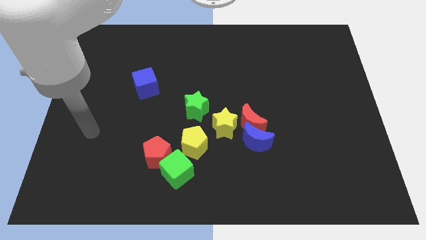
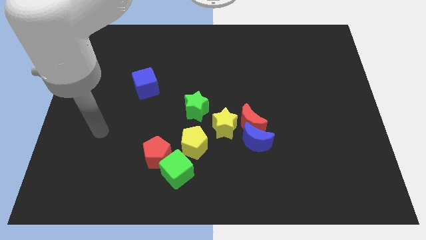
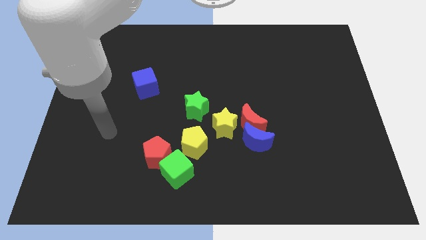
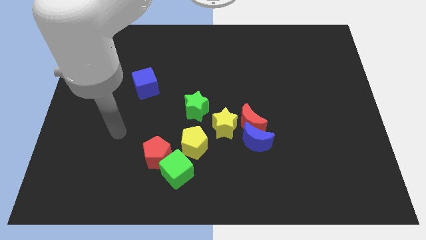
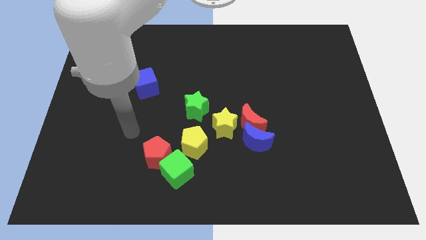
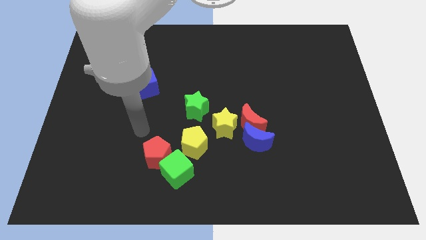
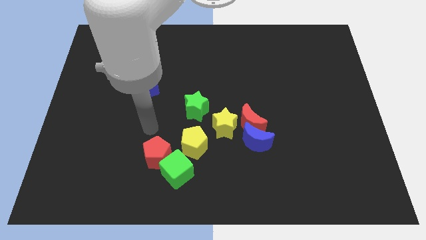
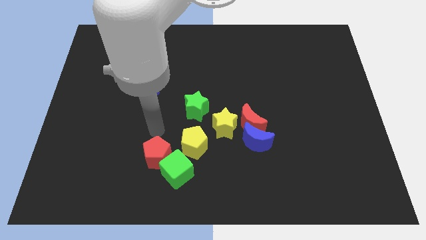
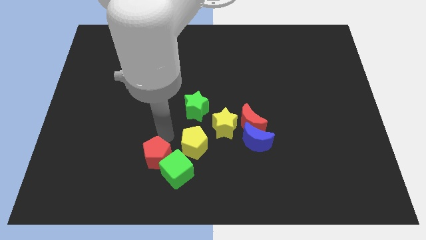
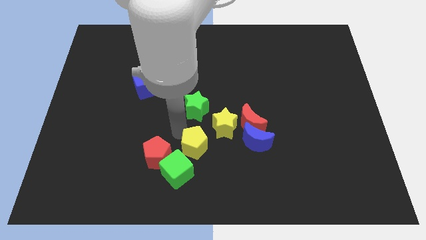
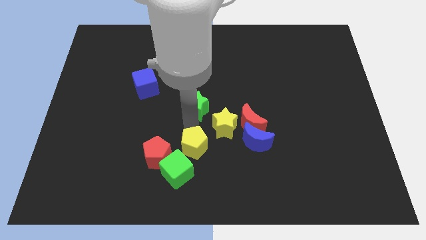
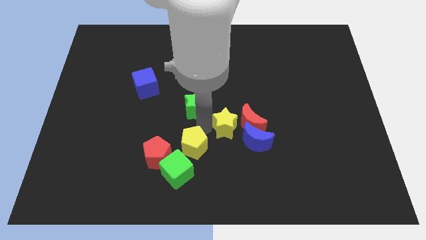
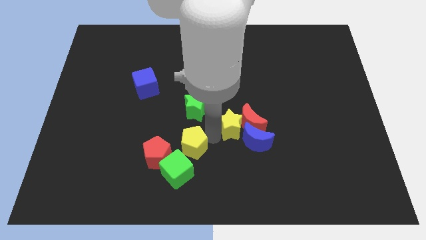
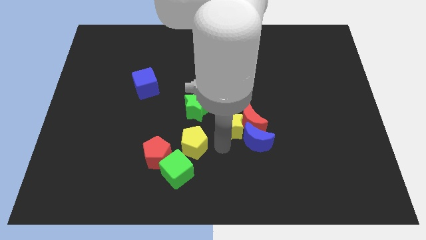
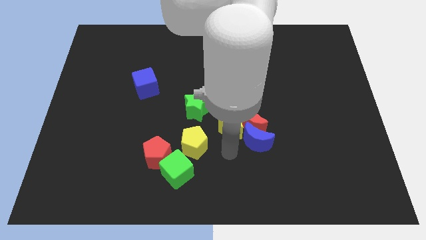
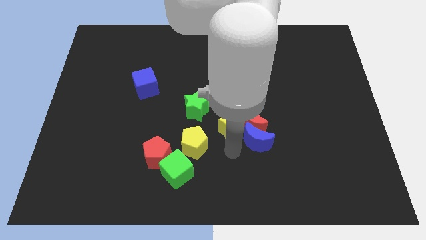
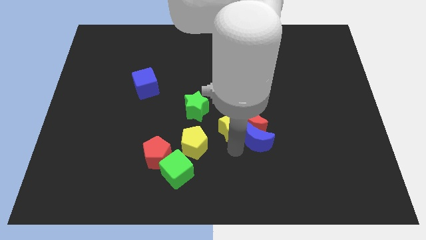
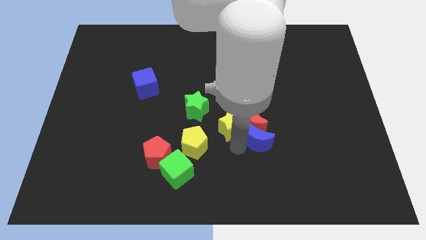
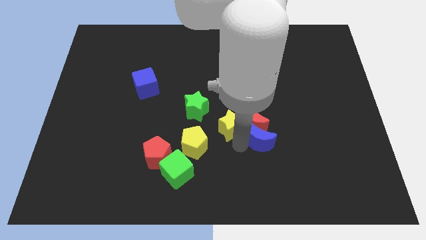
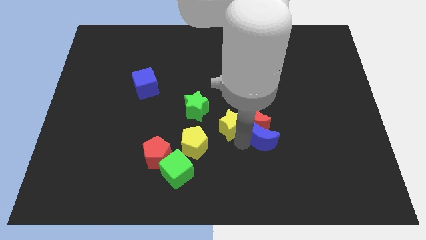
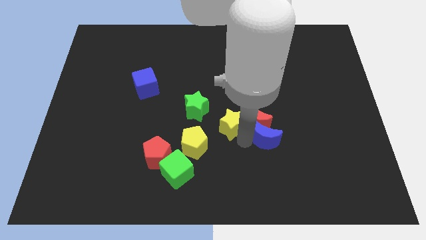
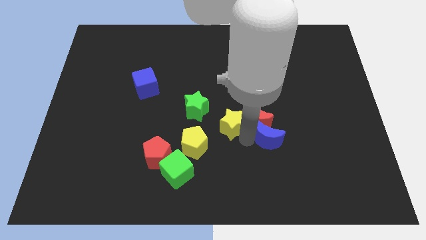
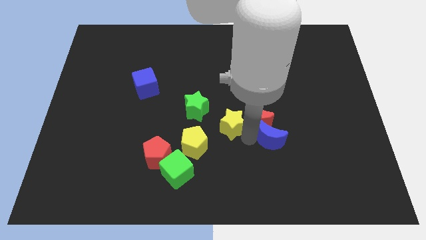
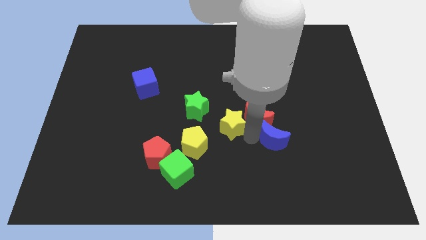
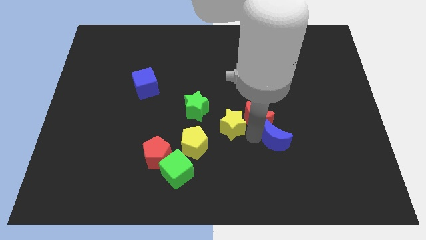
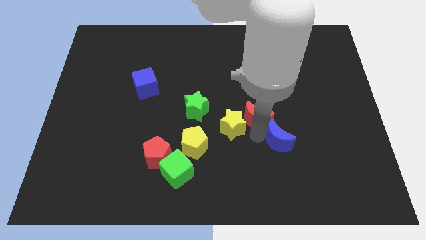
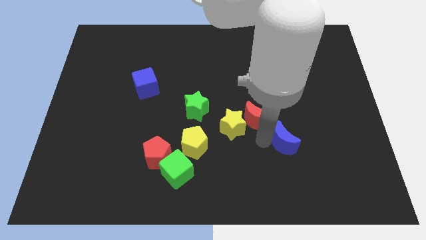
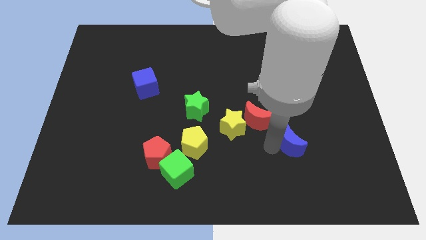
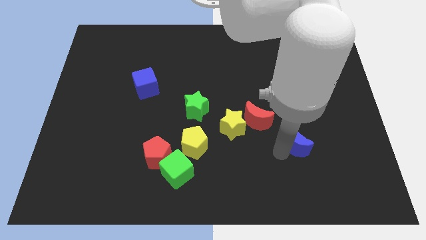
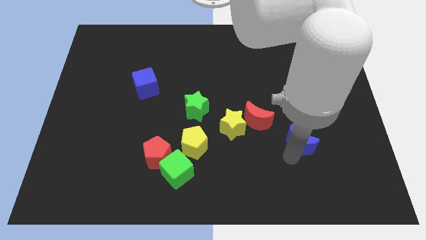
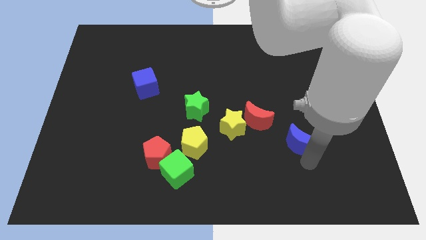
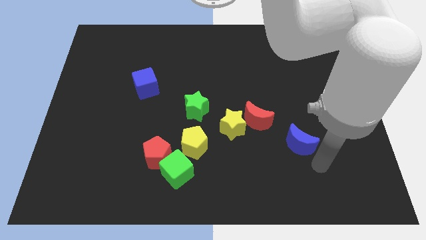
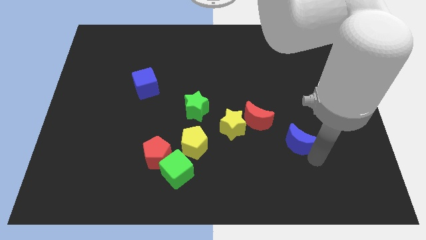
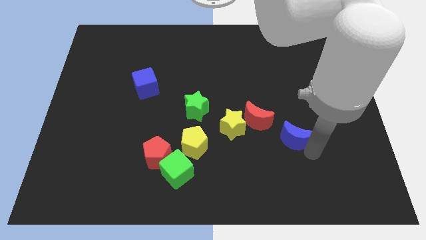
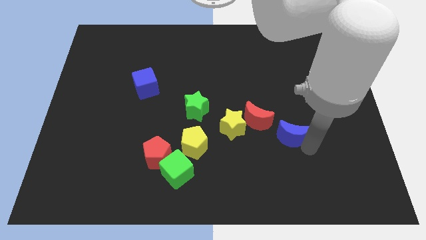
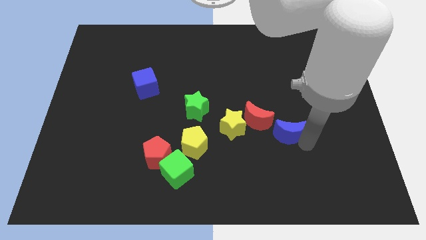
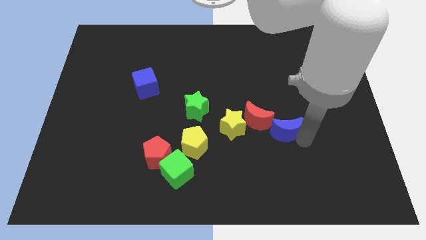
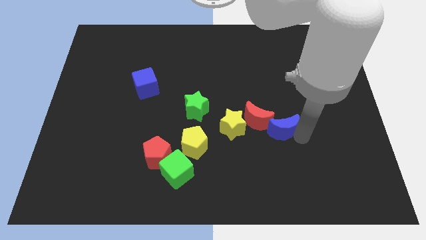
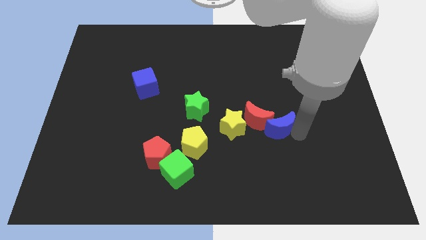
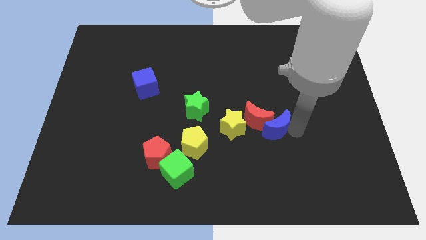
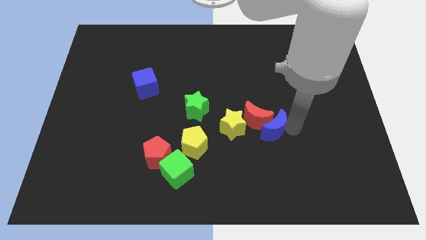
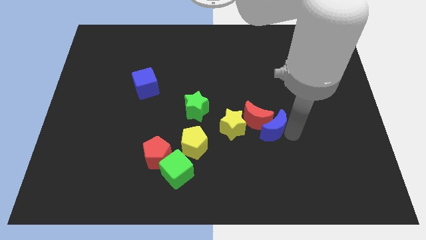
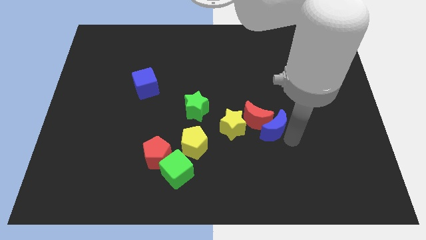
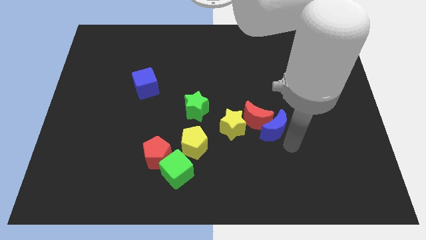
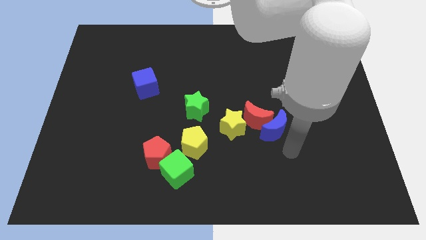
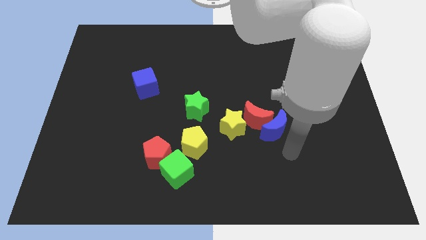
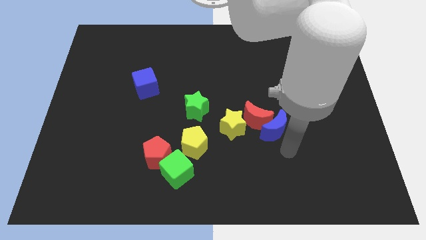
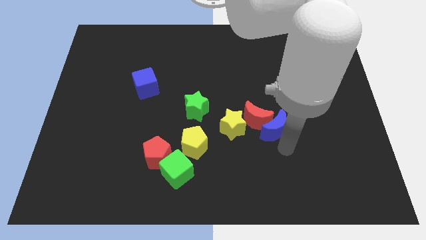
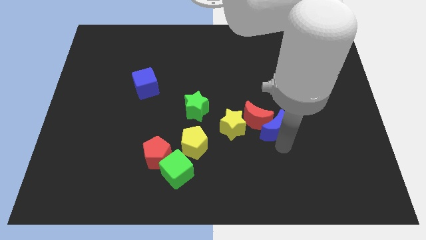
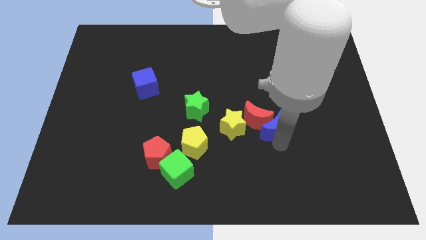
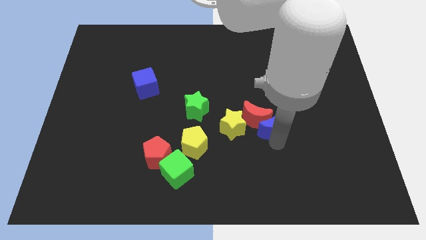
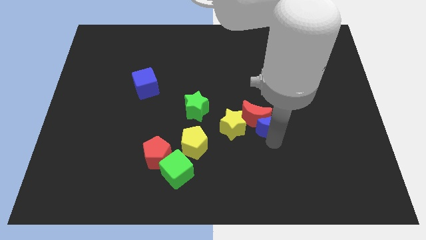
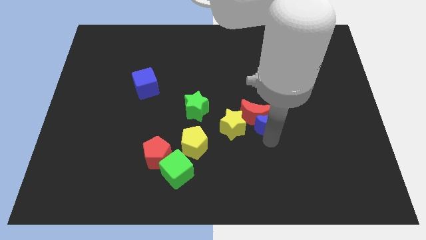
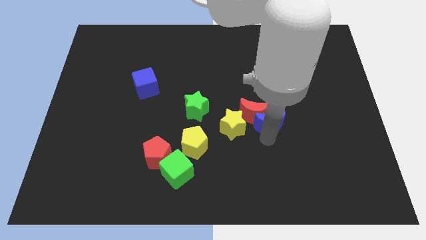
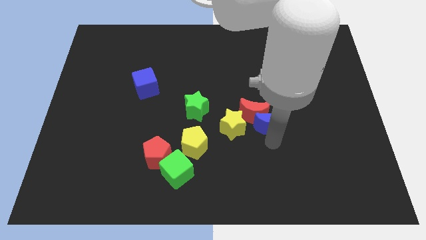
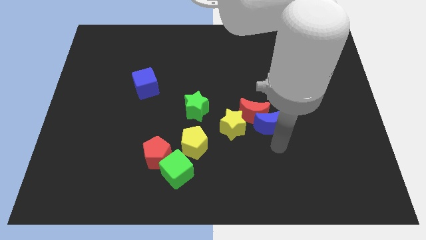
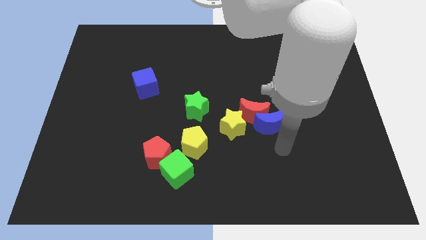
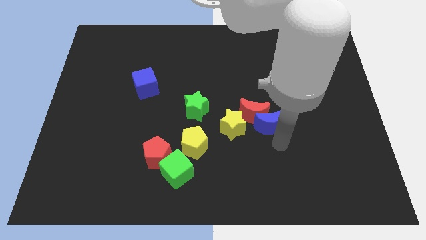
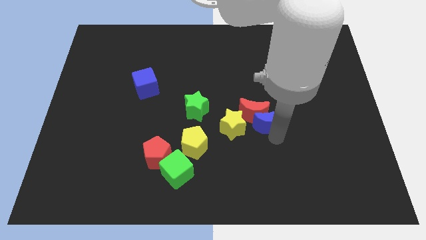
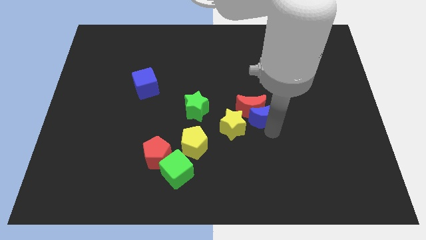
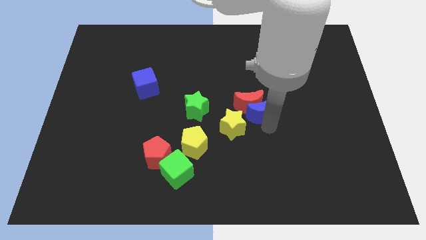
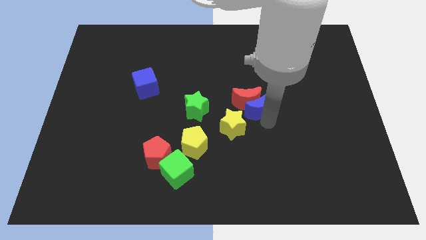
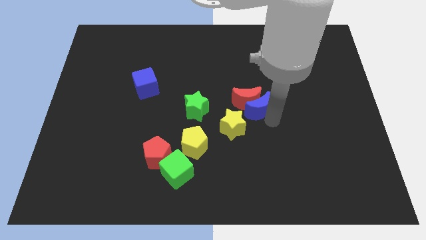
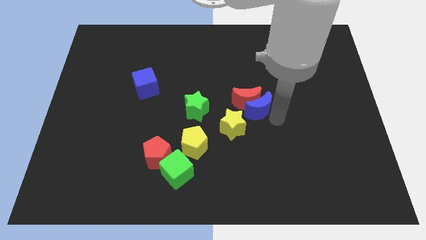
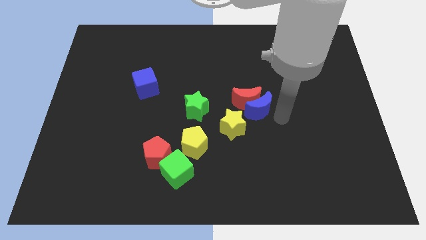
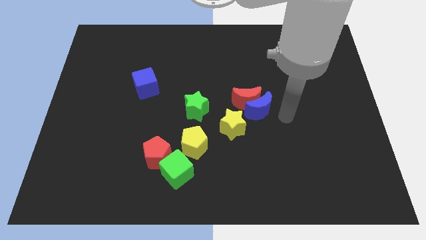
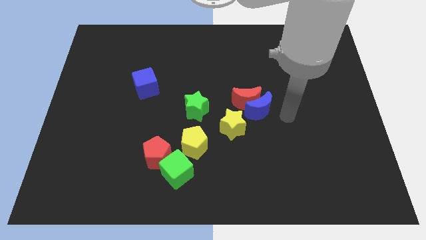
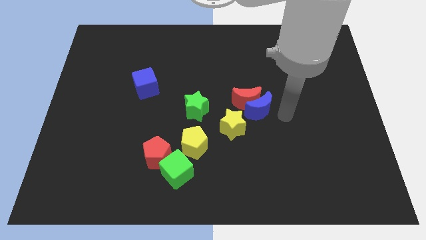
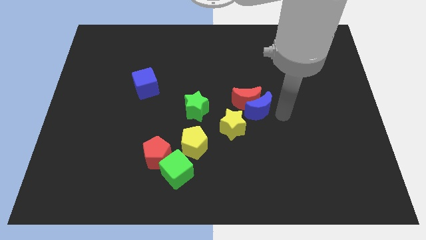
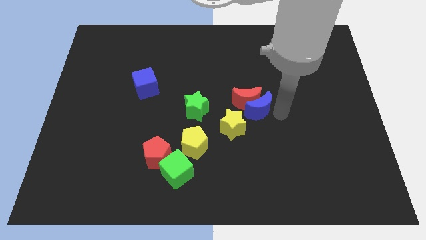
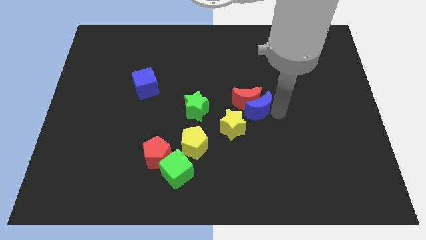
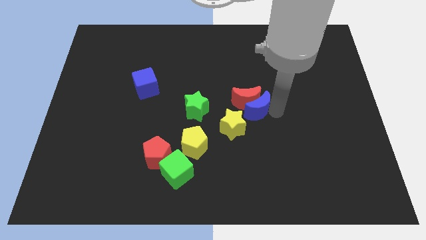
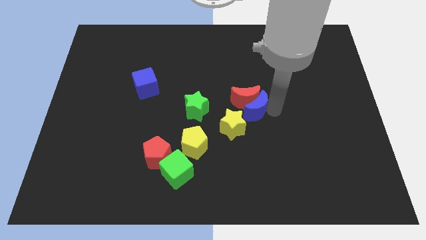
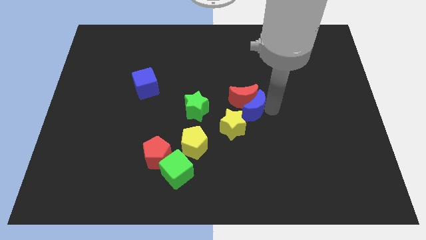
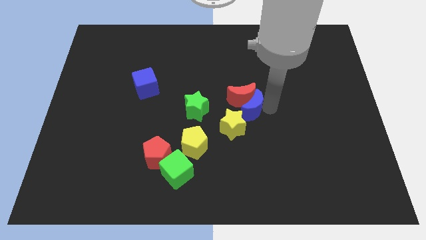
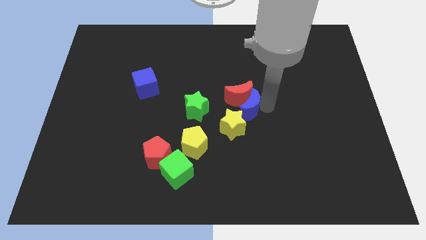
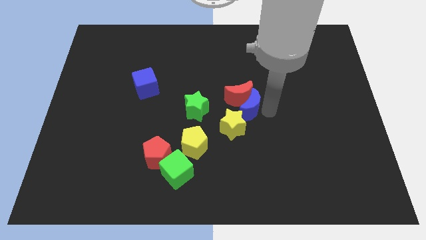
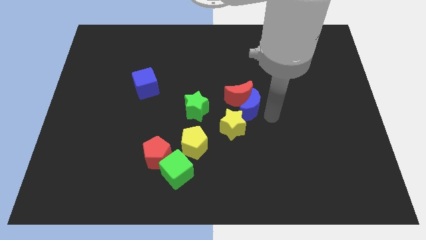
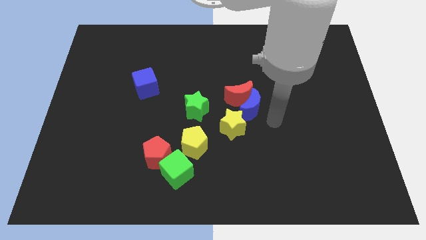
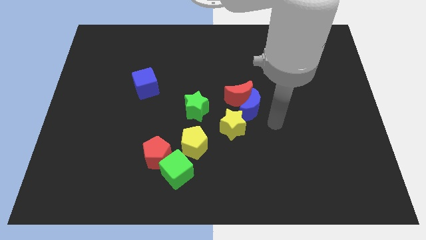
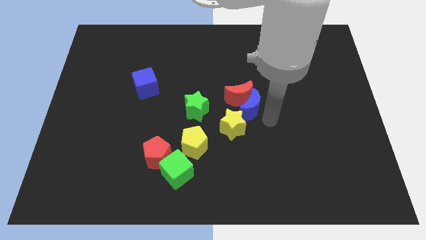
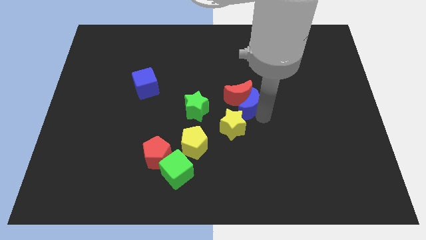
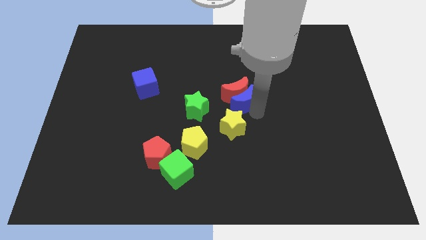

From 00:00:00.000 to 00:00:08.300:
push the blue moon diagonally up and left somewhat
